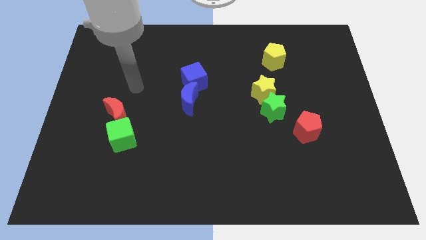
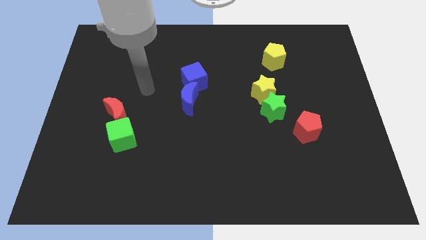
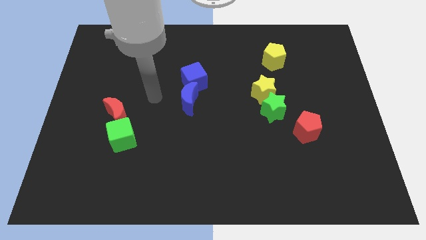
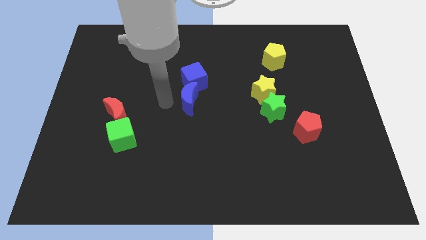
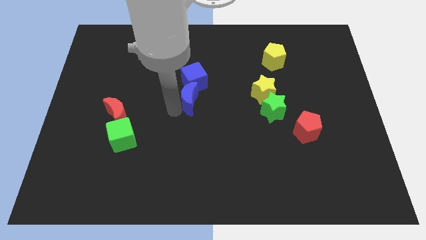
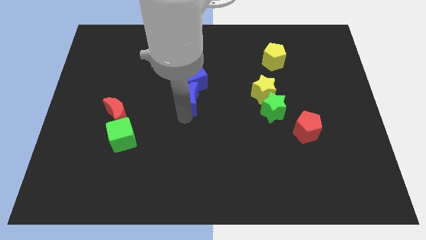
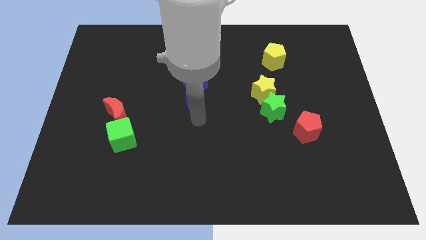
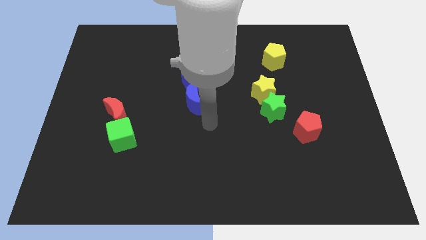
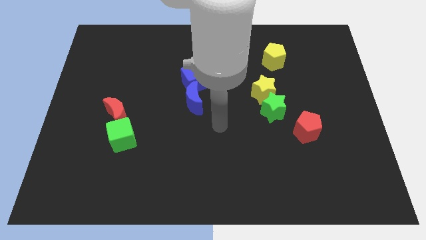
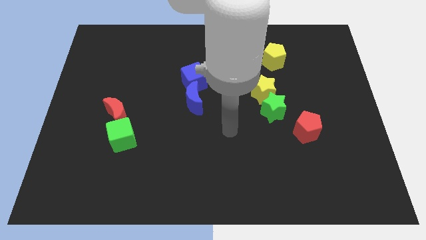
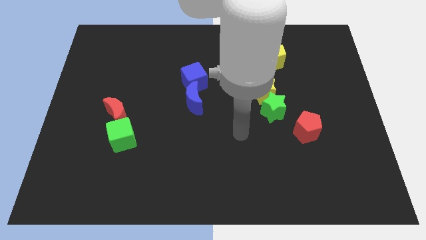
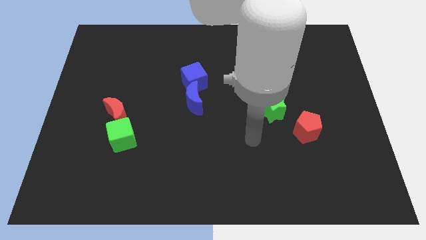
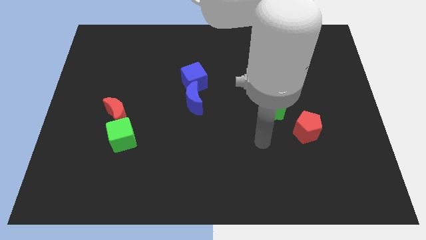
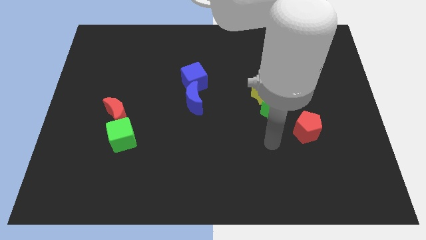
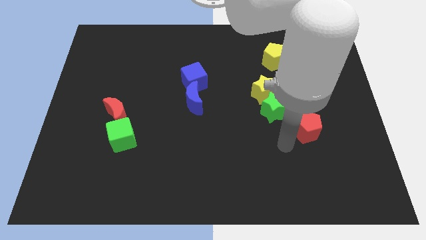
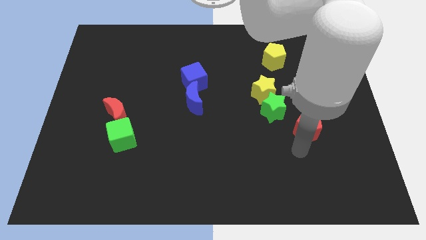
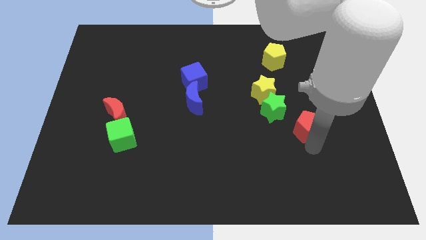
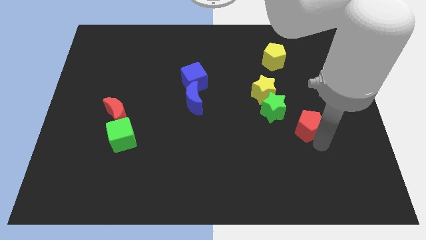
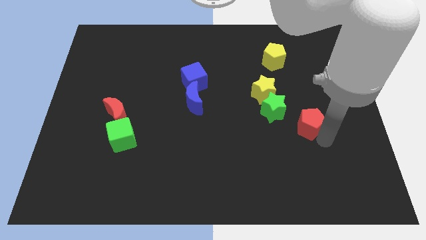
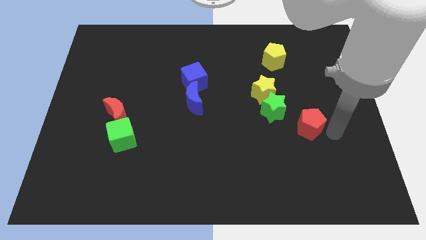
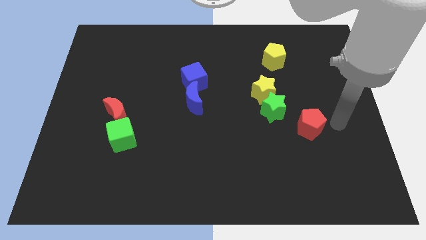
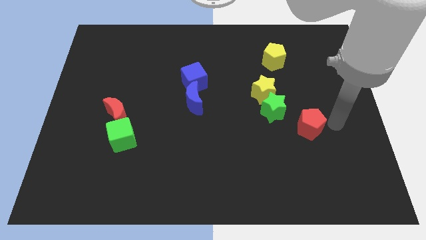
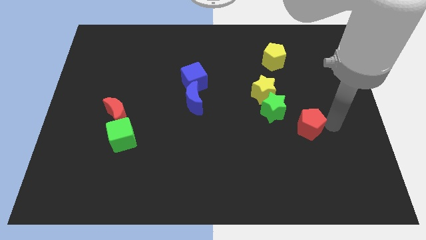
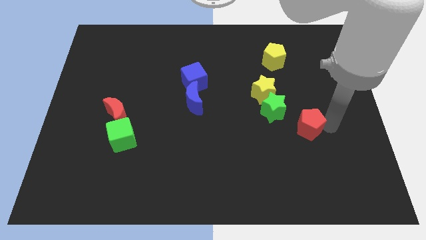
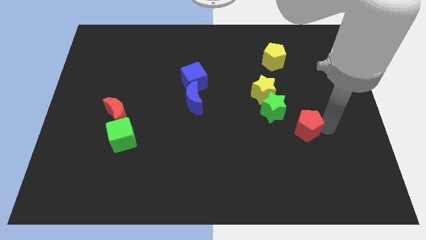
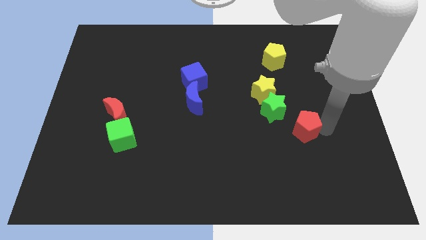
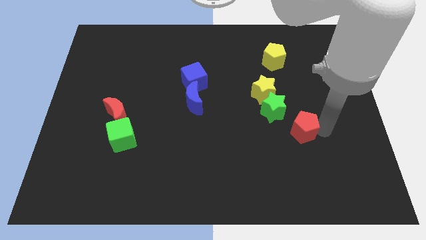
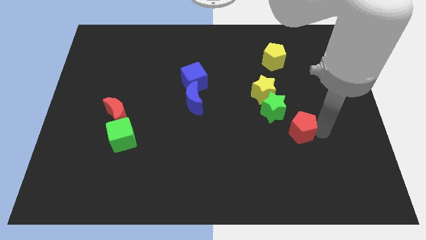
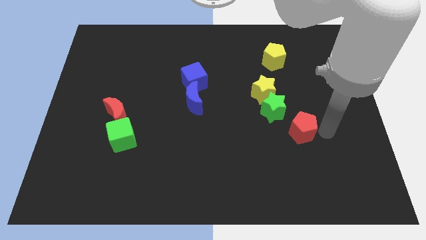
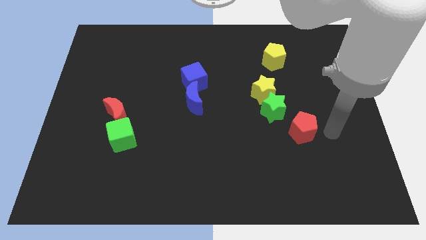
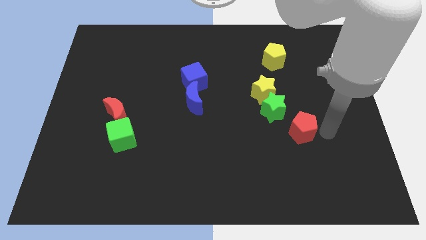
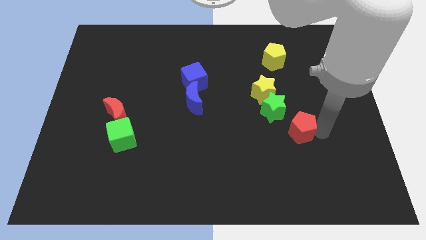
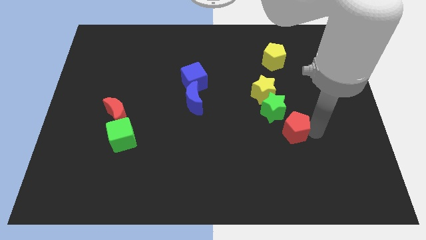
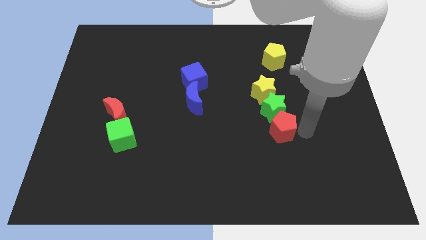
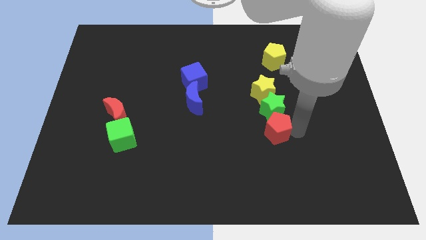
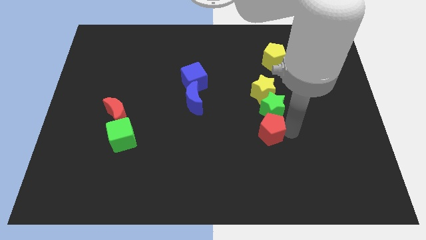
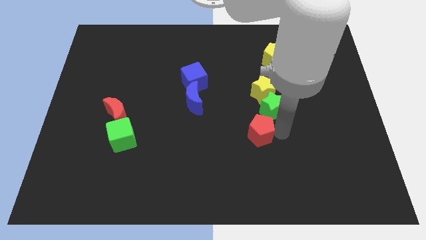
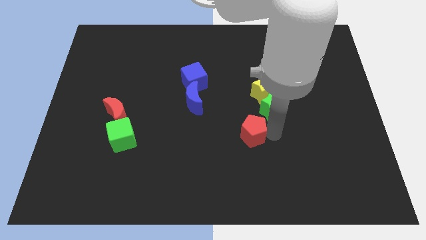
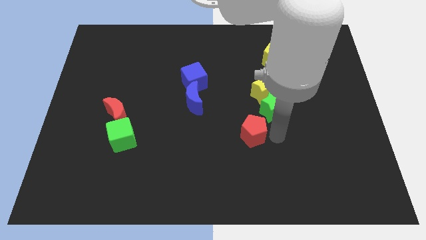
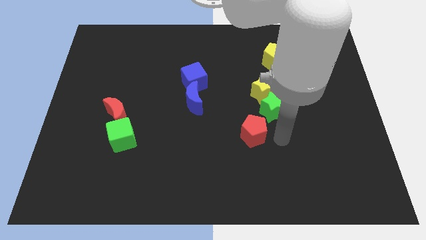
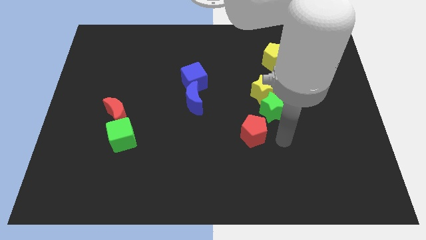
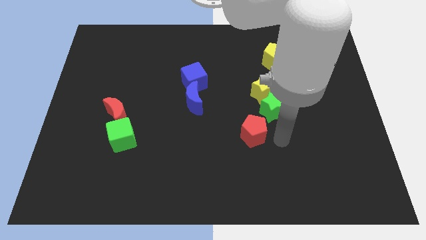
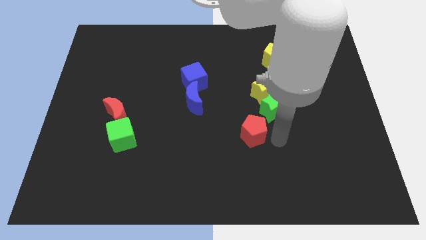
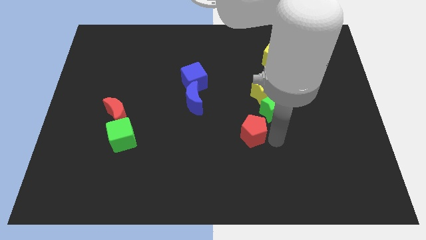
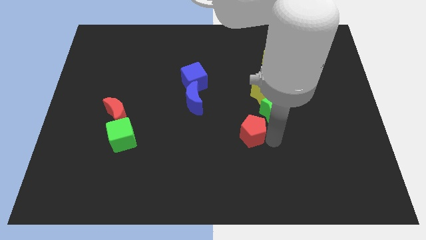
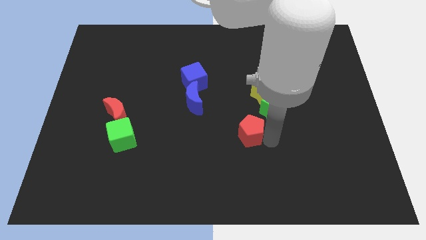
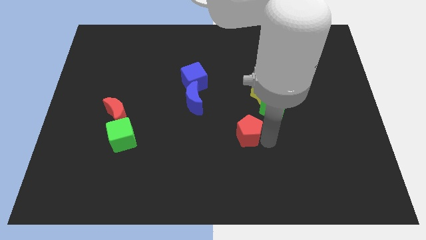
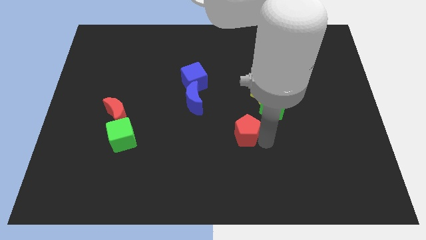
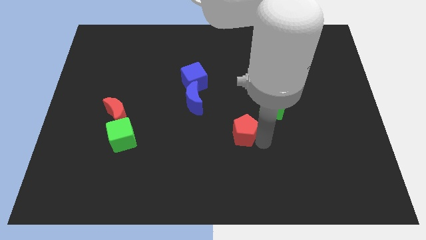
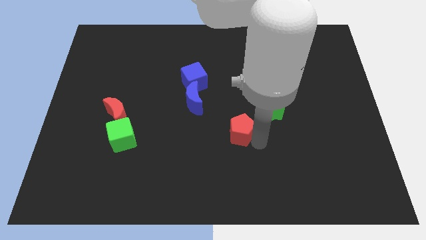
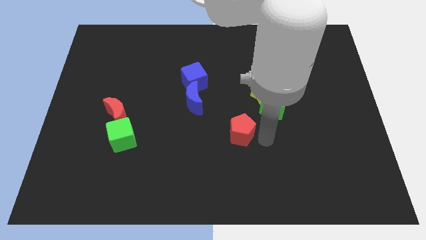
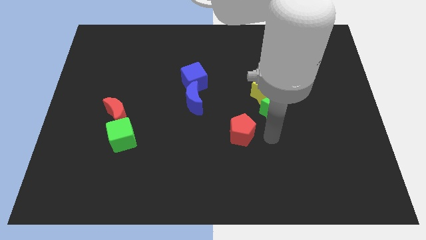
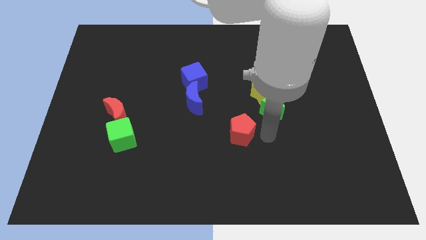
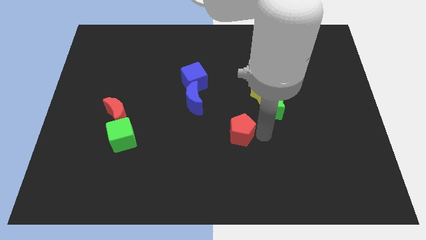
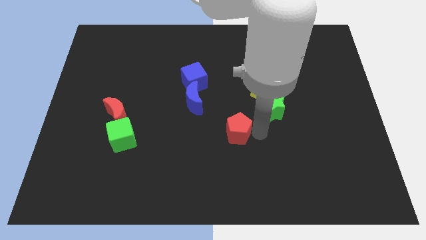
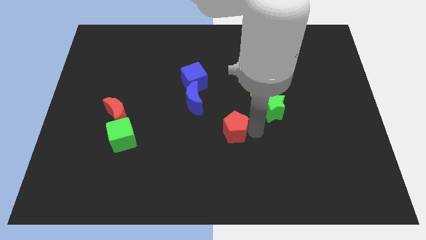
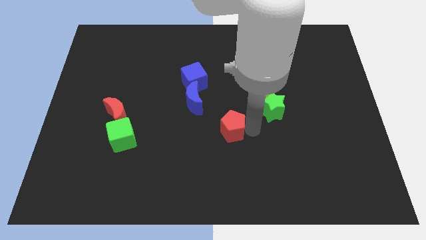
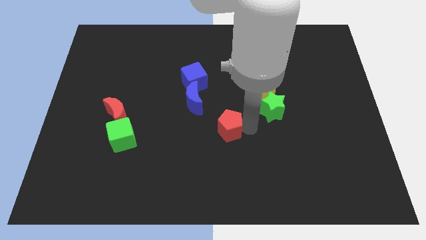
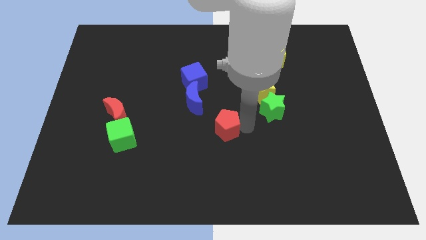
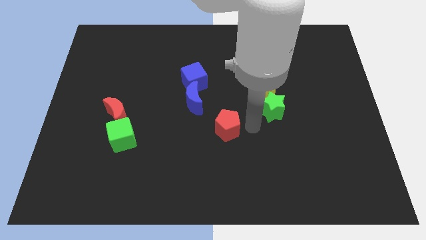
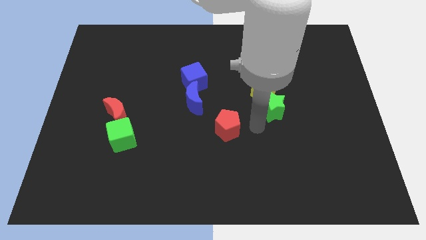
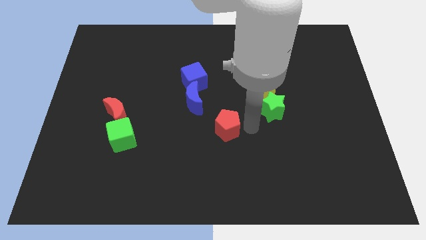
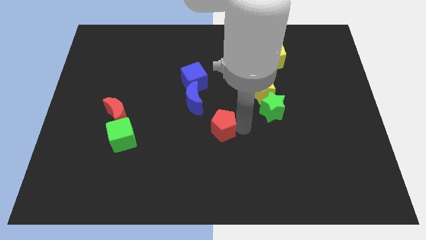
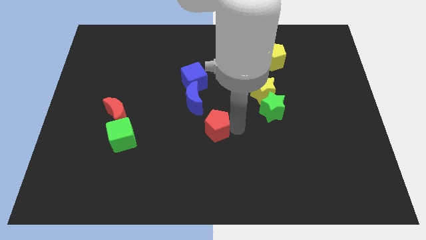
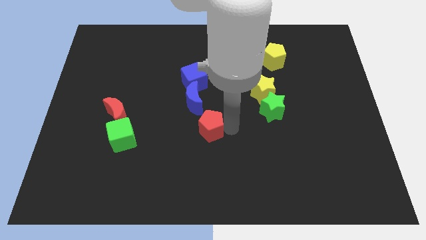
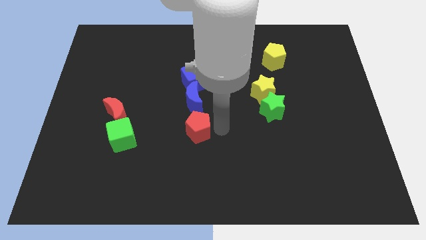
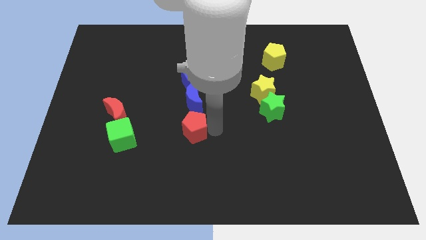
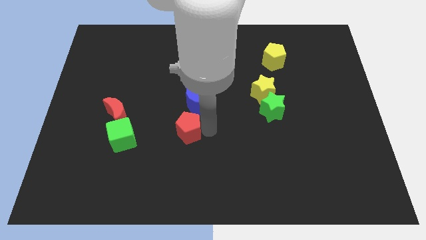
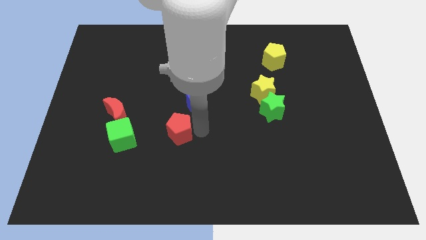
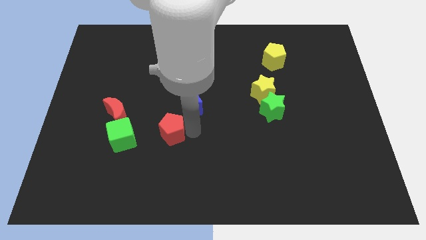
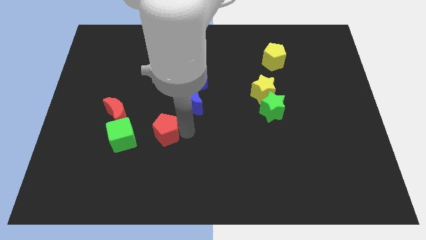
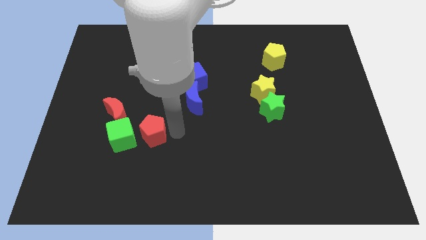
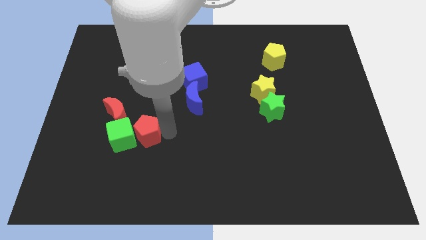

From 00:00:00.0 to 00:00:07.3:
put the red pentagon next to the green cube
